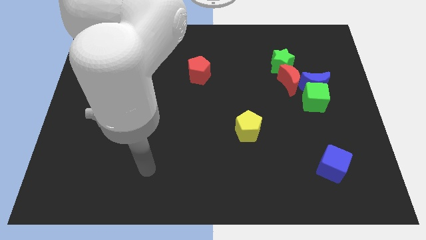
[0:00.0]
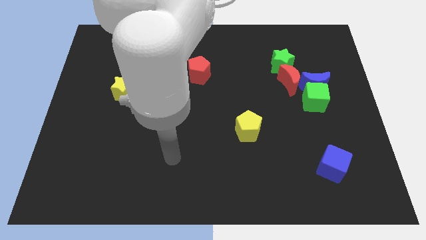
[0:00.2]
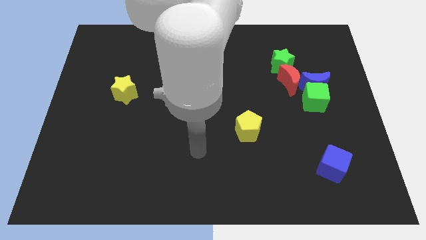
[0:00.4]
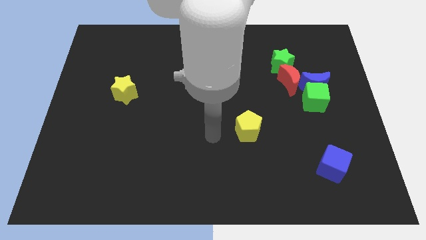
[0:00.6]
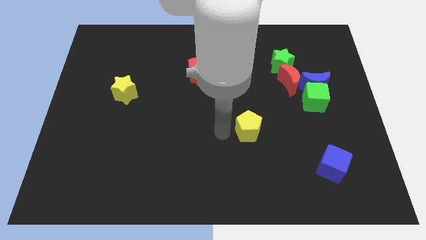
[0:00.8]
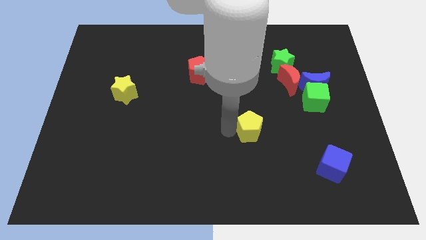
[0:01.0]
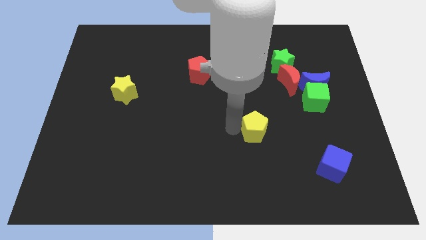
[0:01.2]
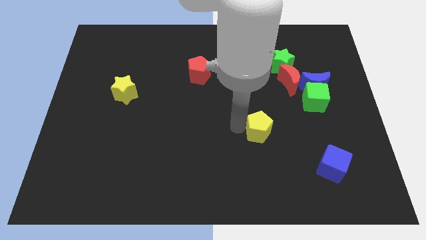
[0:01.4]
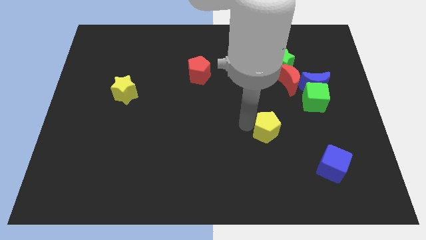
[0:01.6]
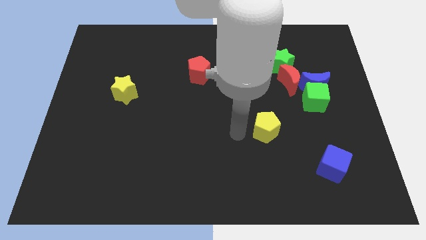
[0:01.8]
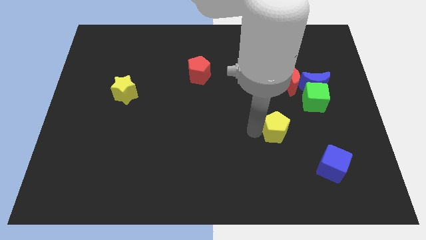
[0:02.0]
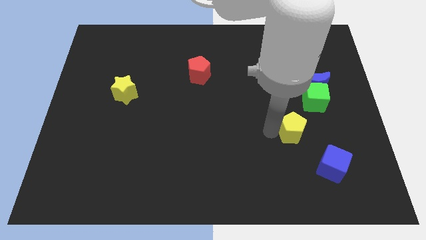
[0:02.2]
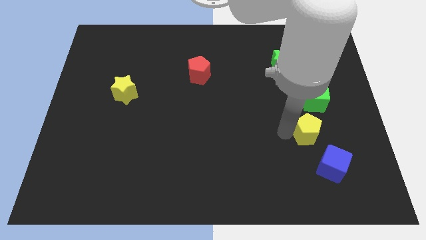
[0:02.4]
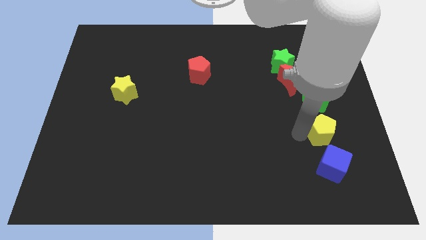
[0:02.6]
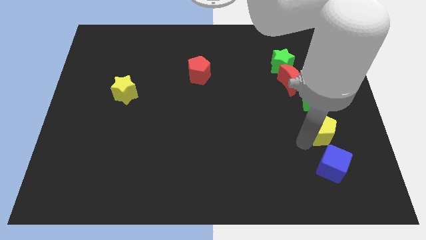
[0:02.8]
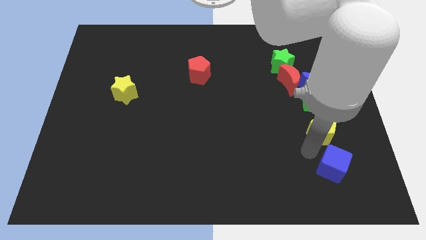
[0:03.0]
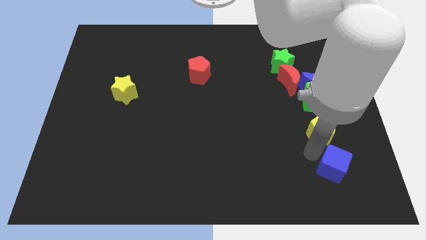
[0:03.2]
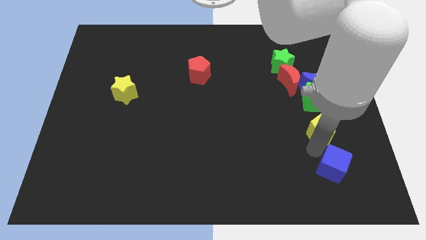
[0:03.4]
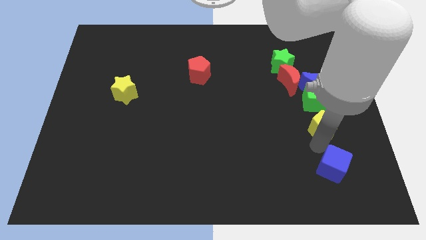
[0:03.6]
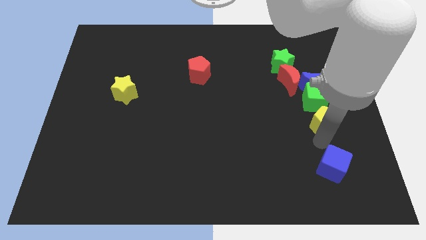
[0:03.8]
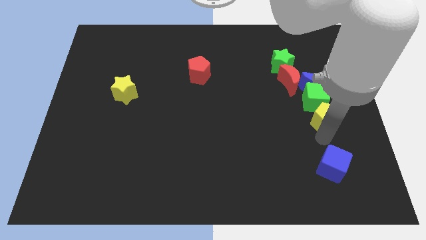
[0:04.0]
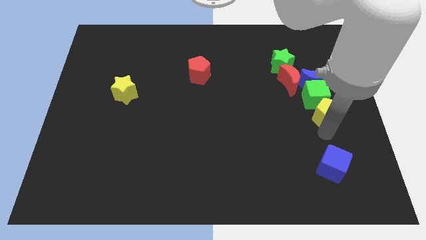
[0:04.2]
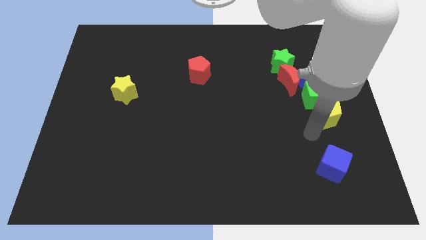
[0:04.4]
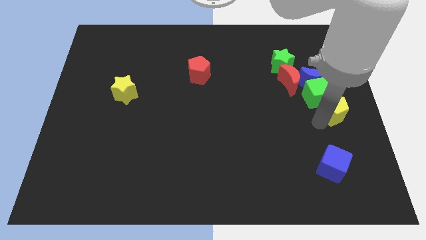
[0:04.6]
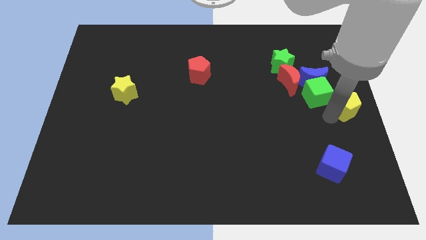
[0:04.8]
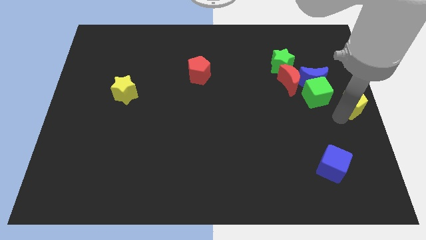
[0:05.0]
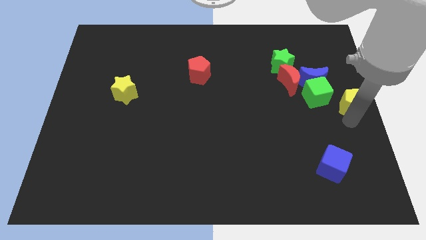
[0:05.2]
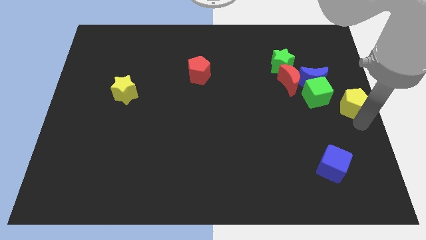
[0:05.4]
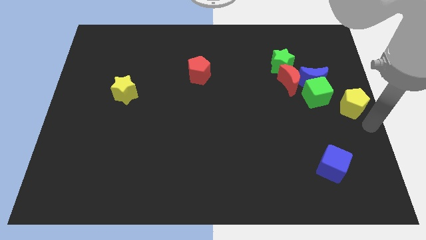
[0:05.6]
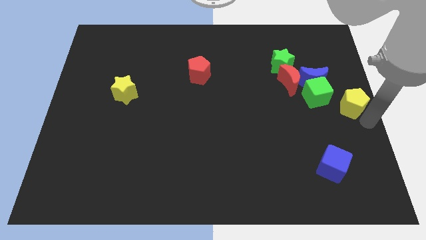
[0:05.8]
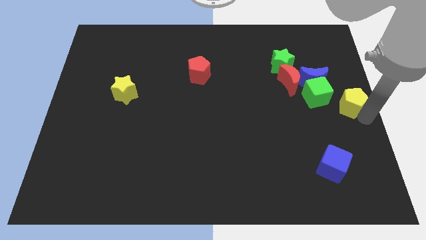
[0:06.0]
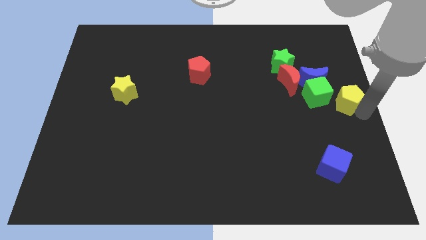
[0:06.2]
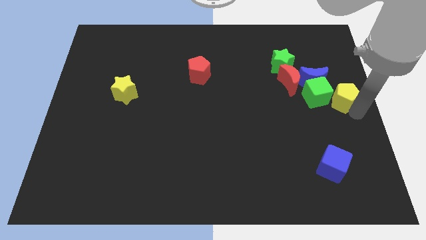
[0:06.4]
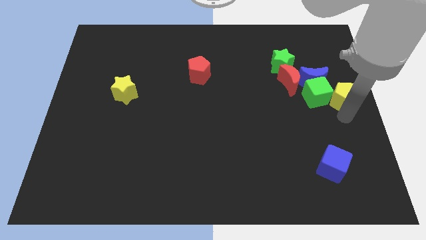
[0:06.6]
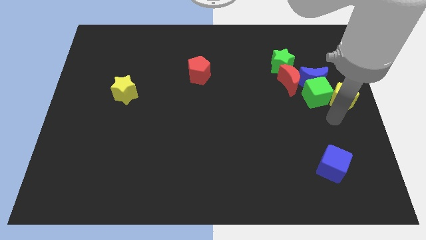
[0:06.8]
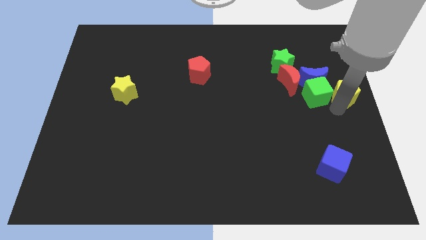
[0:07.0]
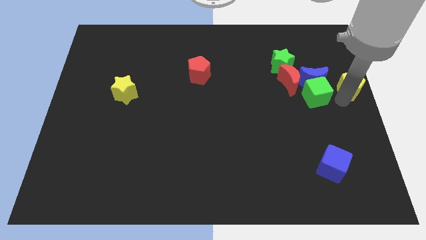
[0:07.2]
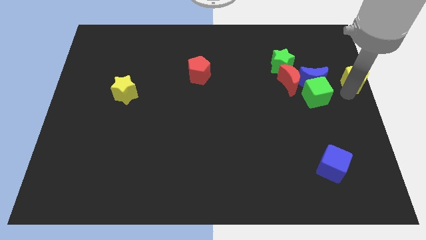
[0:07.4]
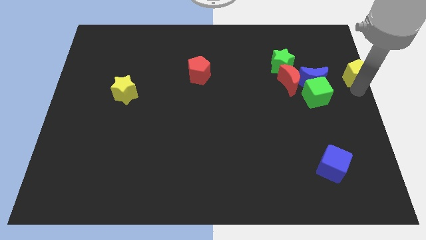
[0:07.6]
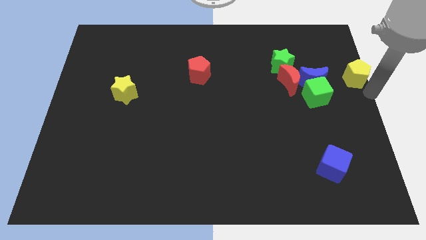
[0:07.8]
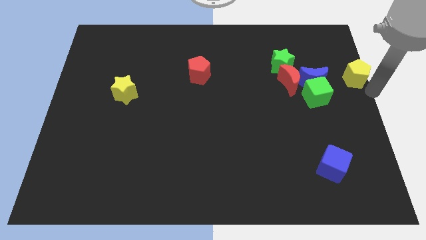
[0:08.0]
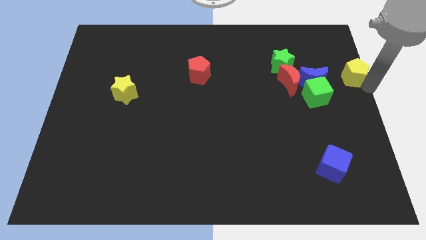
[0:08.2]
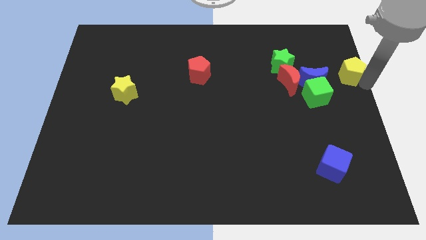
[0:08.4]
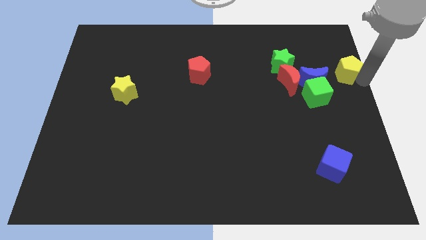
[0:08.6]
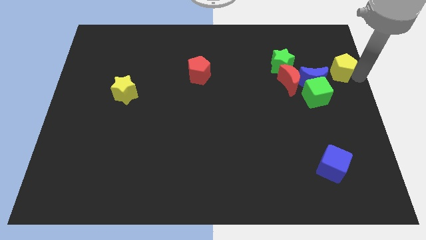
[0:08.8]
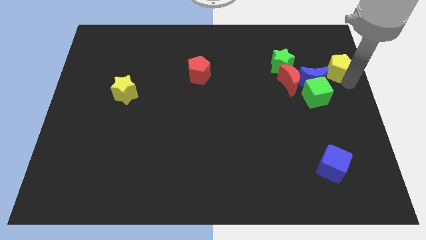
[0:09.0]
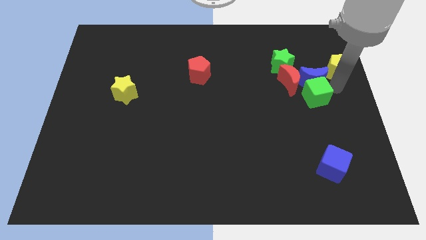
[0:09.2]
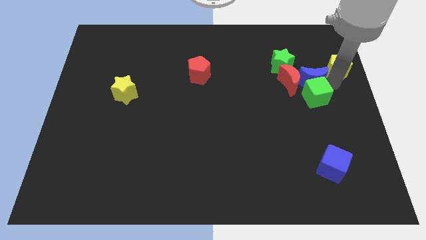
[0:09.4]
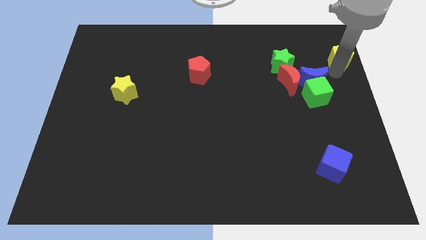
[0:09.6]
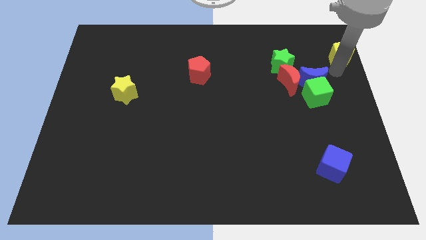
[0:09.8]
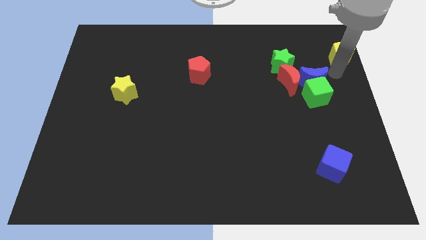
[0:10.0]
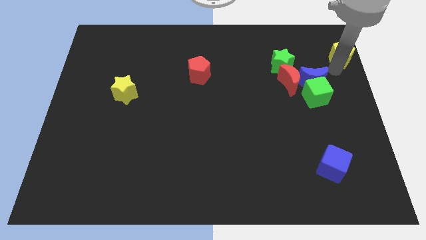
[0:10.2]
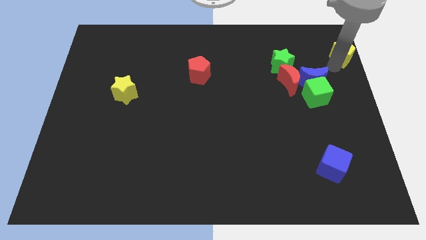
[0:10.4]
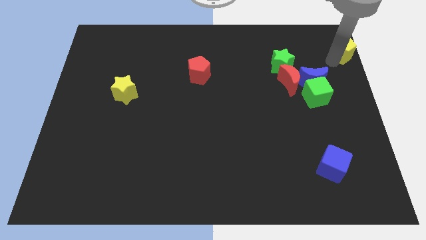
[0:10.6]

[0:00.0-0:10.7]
push the yellow pentagon to the top right corner

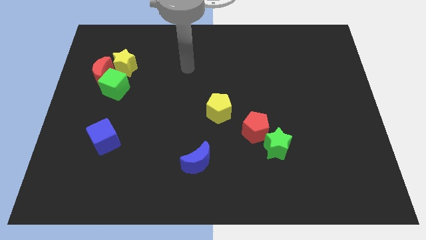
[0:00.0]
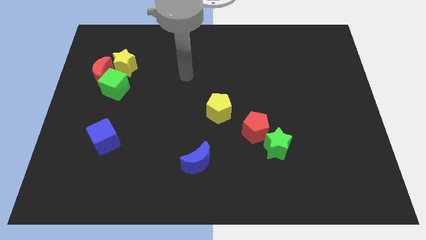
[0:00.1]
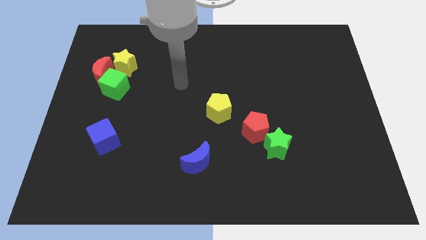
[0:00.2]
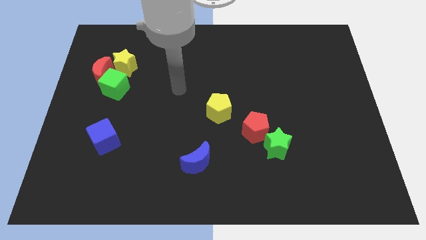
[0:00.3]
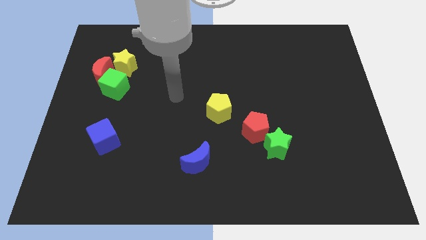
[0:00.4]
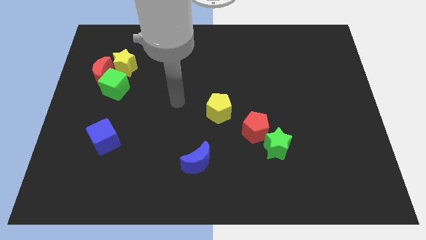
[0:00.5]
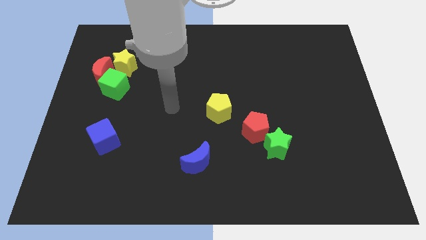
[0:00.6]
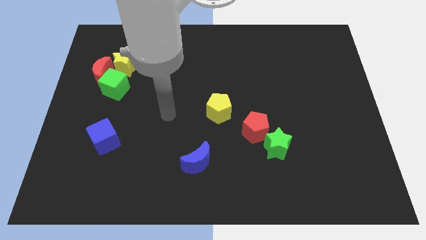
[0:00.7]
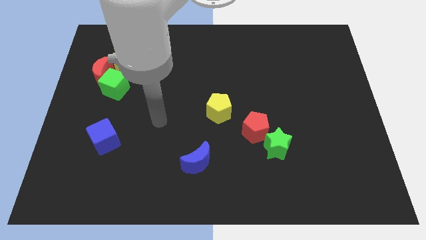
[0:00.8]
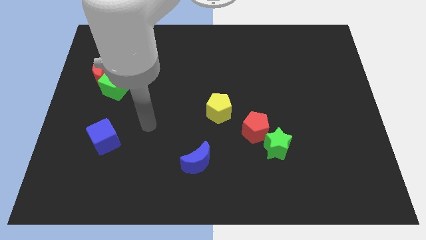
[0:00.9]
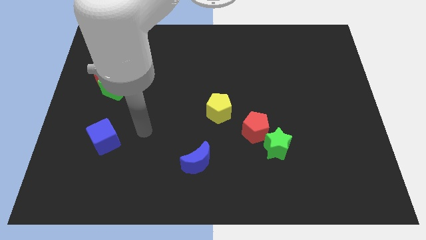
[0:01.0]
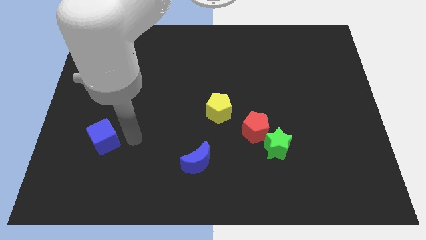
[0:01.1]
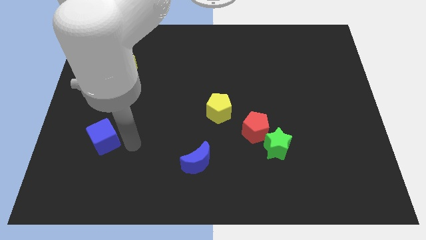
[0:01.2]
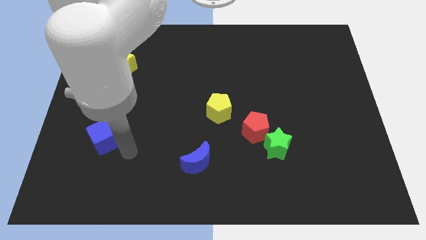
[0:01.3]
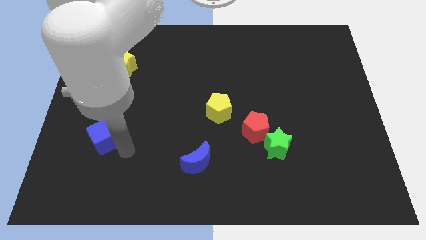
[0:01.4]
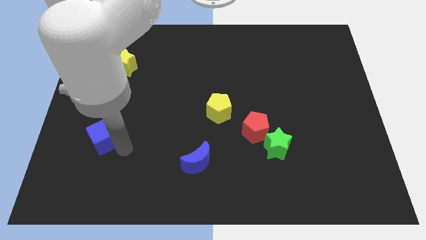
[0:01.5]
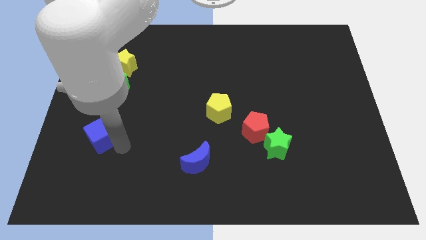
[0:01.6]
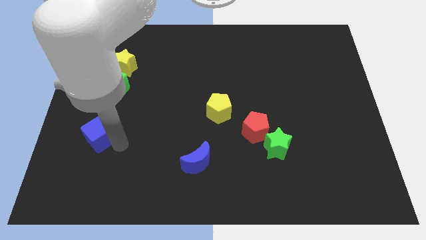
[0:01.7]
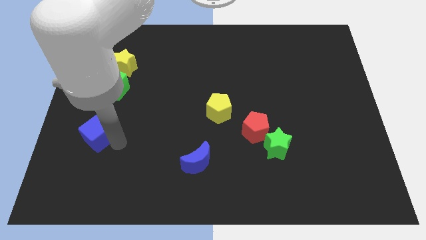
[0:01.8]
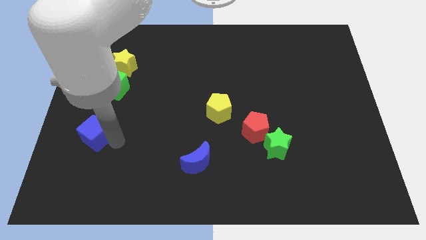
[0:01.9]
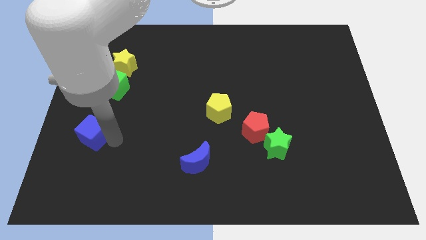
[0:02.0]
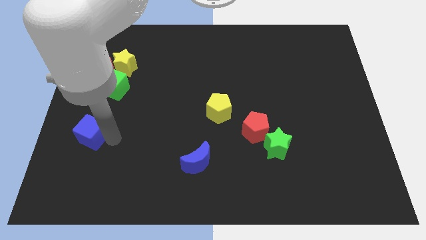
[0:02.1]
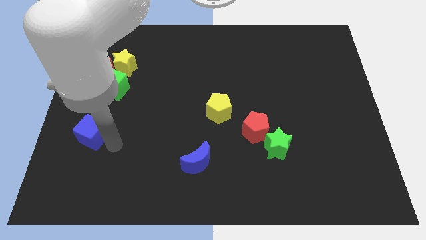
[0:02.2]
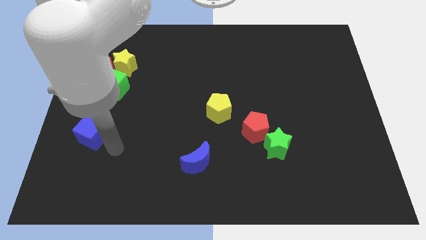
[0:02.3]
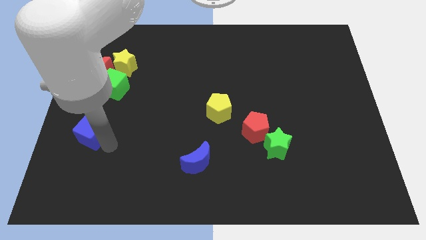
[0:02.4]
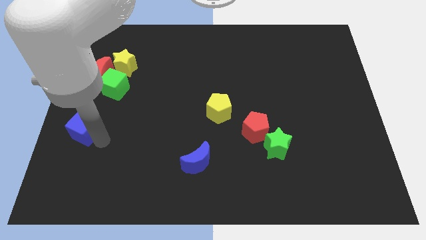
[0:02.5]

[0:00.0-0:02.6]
push the blue cube to the left side

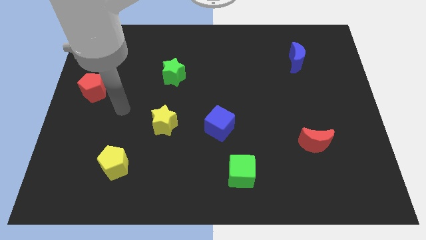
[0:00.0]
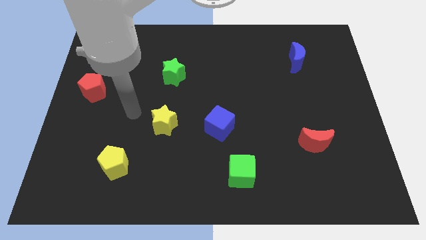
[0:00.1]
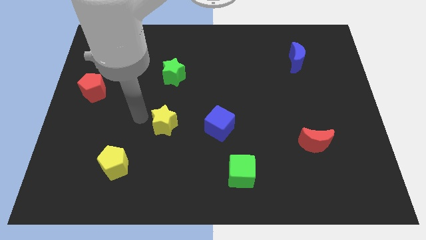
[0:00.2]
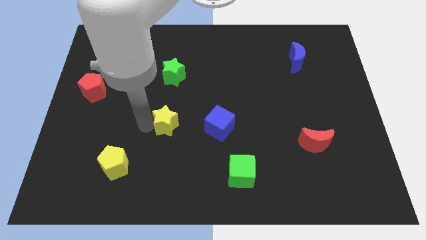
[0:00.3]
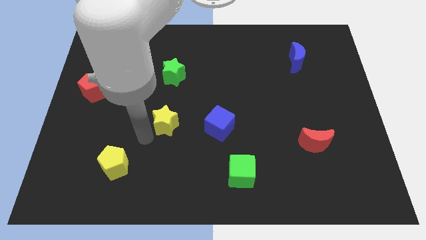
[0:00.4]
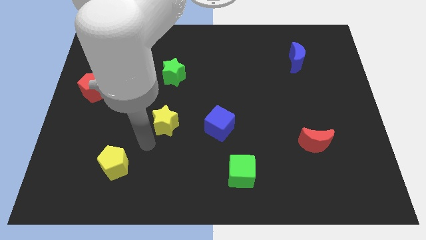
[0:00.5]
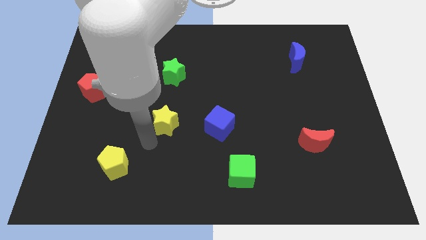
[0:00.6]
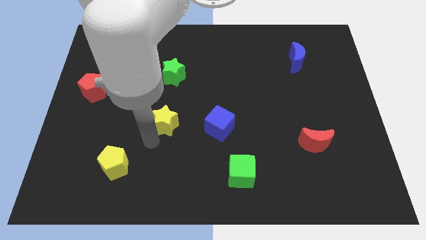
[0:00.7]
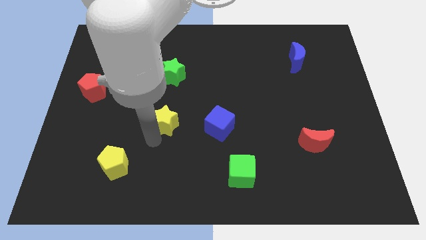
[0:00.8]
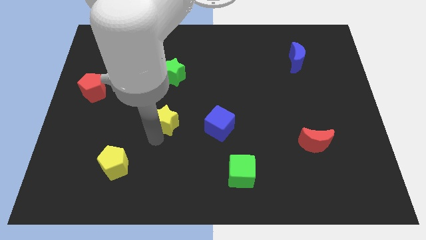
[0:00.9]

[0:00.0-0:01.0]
put the yellow star to the middle of the board
